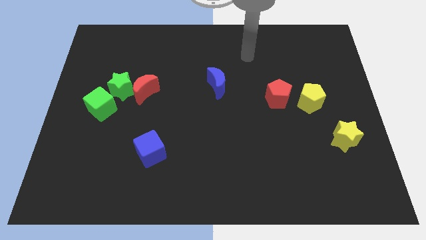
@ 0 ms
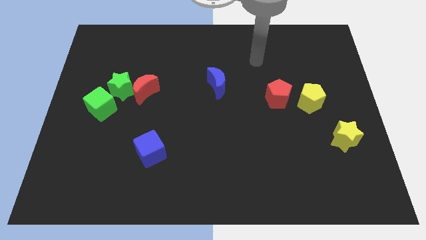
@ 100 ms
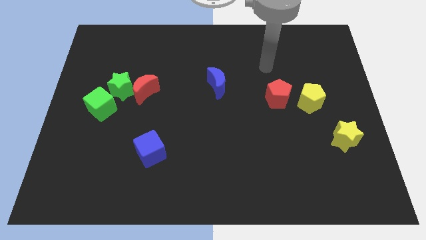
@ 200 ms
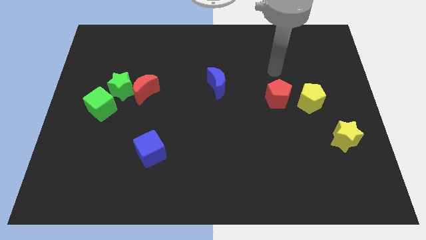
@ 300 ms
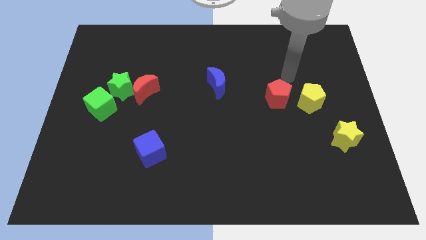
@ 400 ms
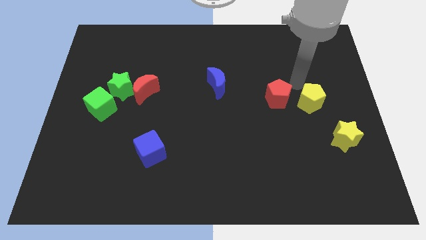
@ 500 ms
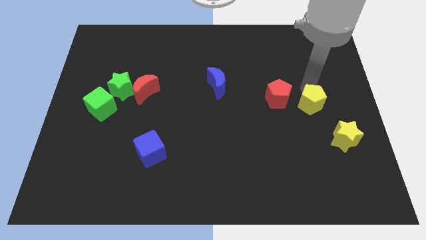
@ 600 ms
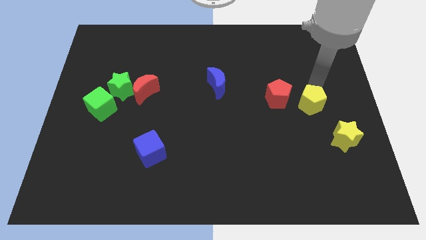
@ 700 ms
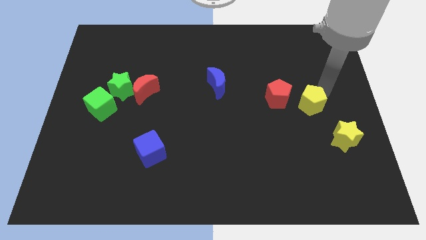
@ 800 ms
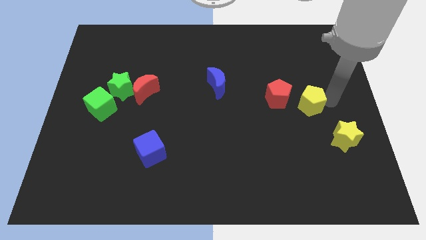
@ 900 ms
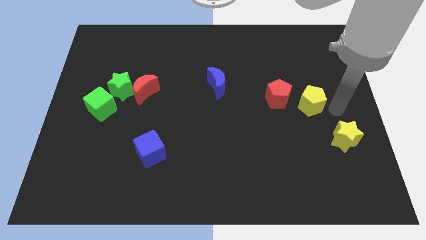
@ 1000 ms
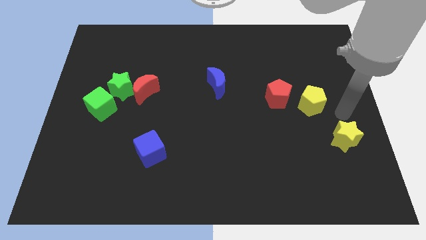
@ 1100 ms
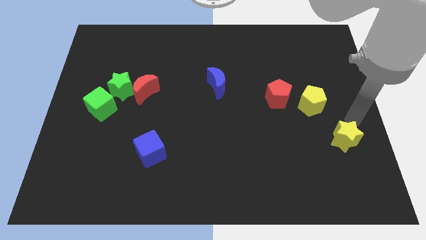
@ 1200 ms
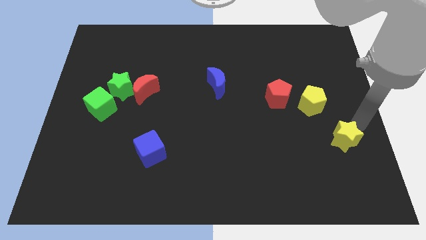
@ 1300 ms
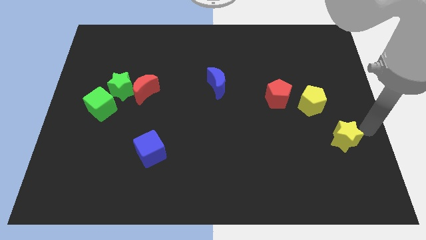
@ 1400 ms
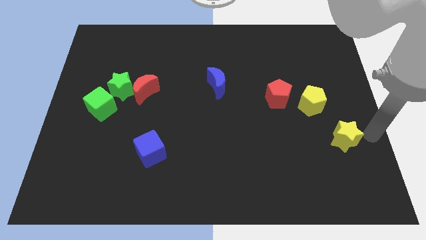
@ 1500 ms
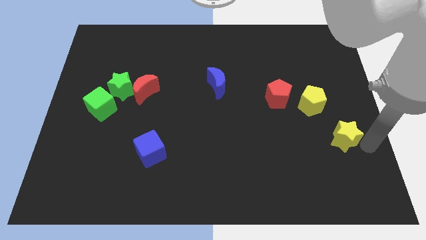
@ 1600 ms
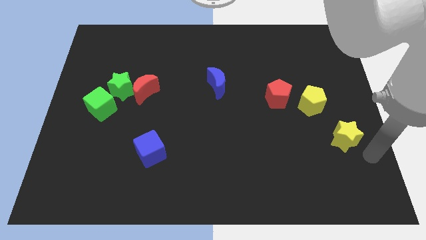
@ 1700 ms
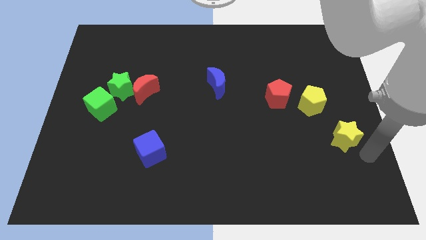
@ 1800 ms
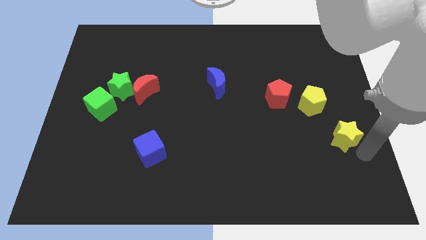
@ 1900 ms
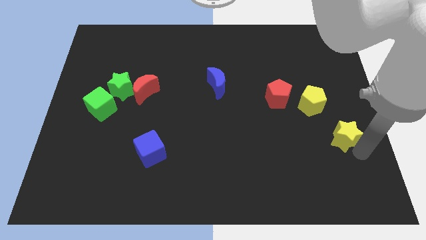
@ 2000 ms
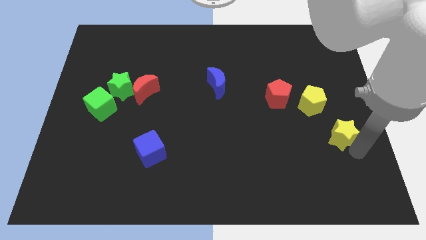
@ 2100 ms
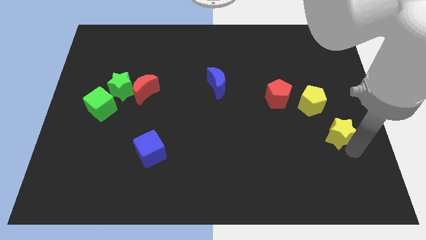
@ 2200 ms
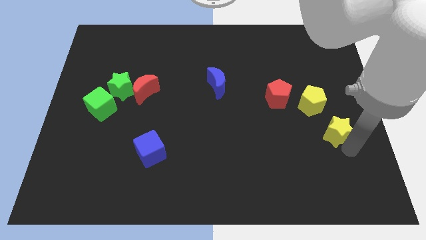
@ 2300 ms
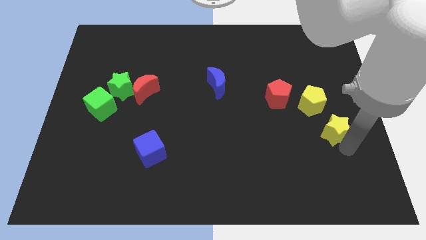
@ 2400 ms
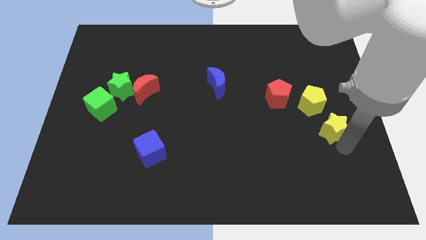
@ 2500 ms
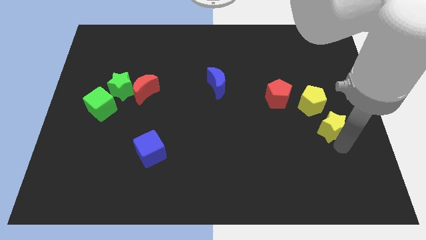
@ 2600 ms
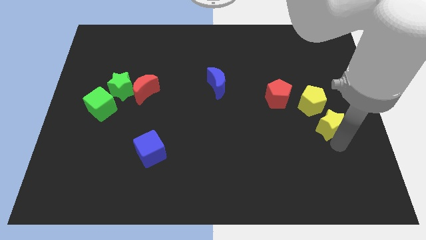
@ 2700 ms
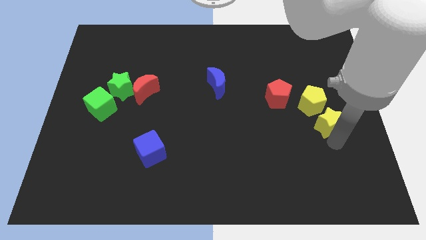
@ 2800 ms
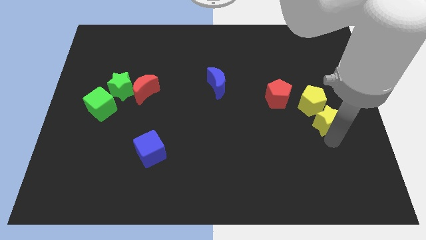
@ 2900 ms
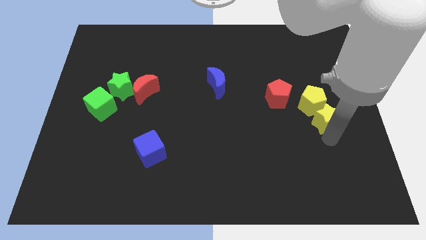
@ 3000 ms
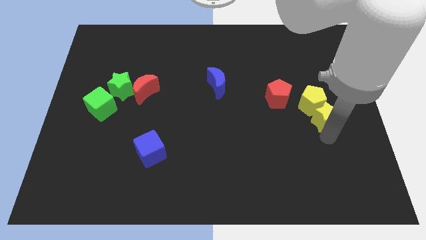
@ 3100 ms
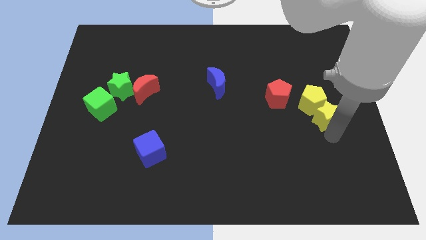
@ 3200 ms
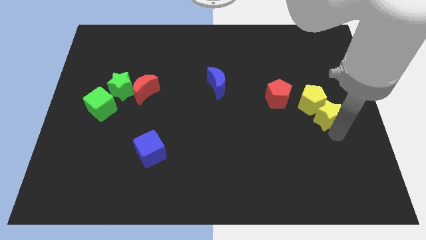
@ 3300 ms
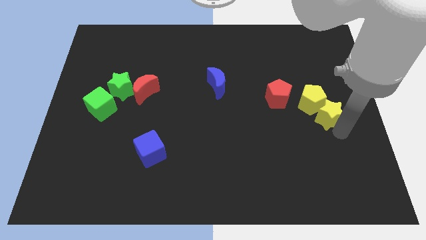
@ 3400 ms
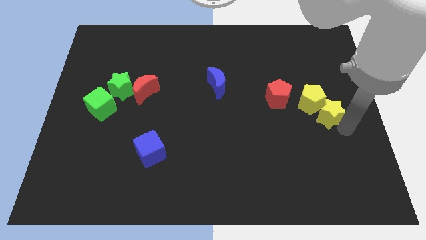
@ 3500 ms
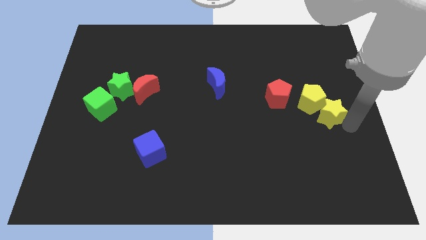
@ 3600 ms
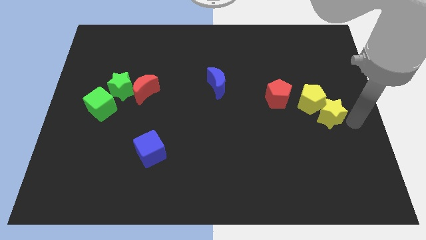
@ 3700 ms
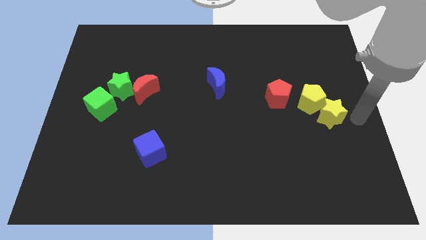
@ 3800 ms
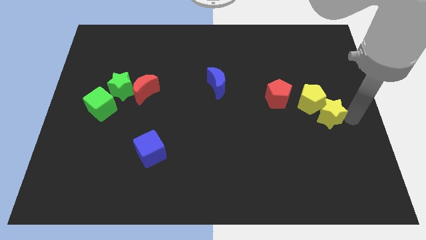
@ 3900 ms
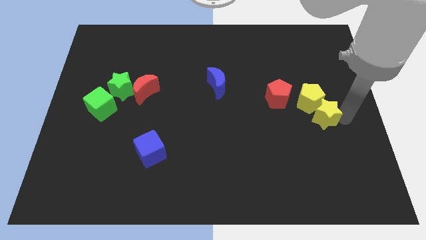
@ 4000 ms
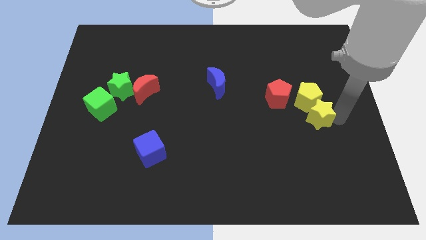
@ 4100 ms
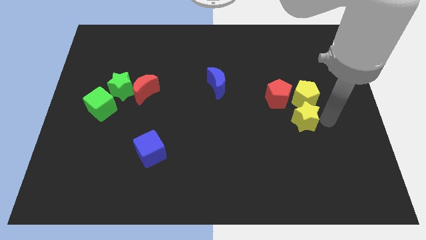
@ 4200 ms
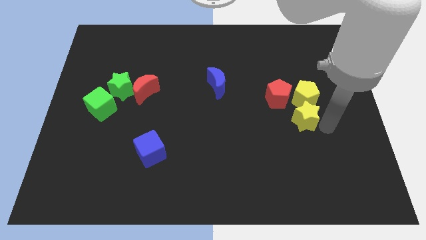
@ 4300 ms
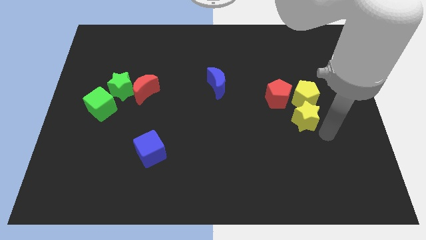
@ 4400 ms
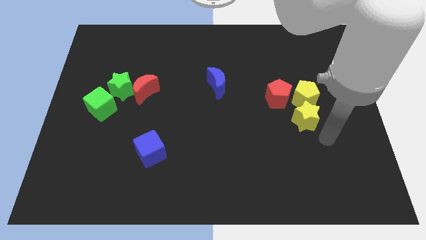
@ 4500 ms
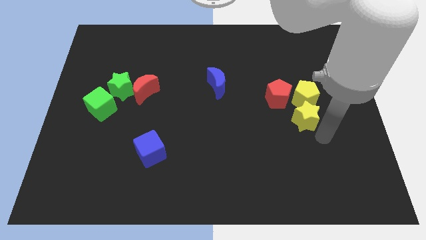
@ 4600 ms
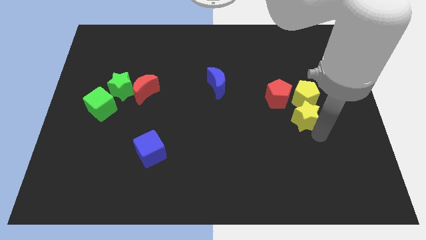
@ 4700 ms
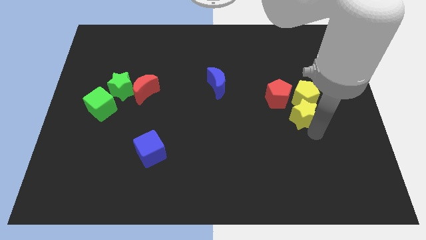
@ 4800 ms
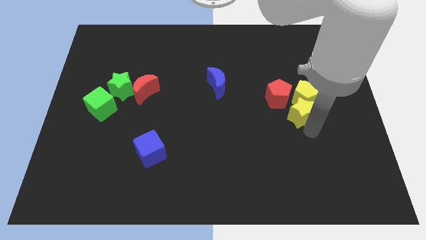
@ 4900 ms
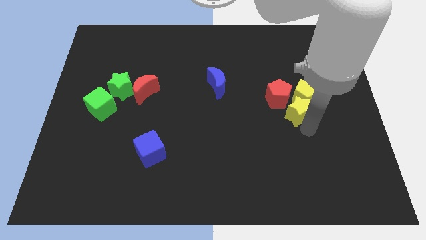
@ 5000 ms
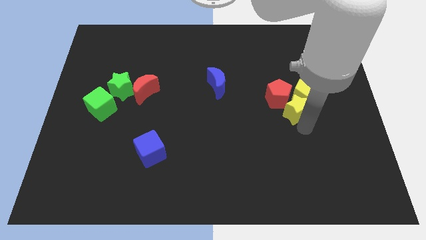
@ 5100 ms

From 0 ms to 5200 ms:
move the yellow star to the red pentagon

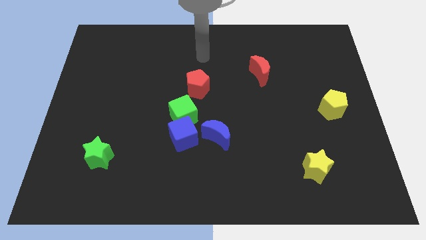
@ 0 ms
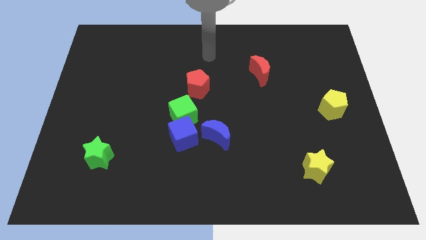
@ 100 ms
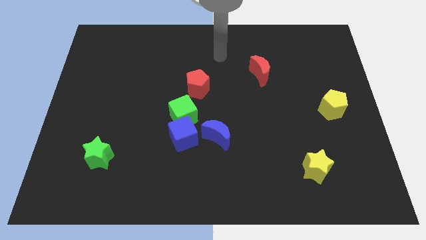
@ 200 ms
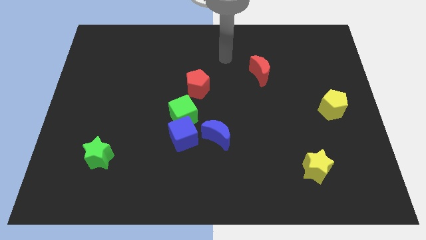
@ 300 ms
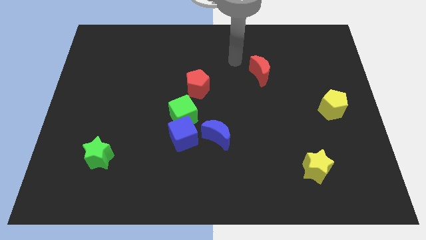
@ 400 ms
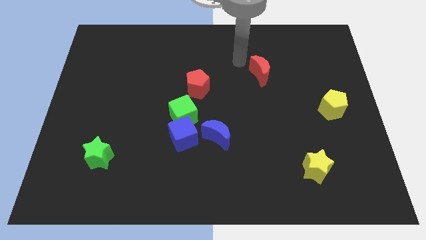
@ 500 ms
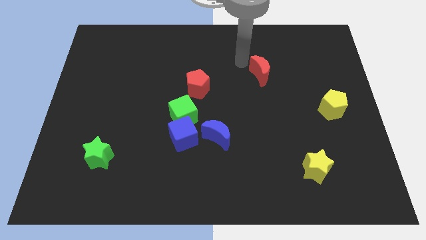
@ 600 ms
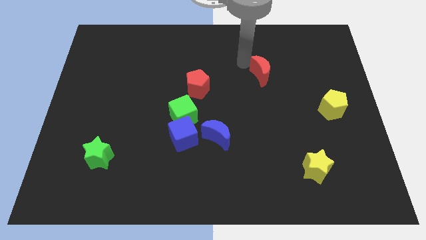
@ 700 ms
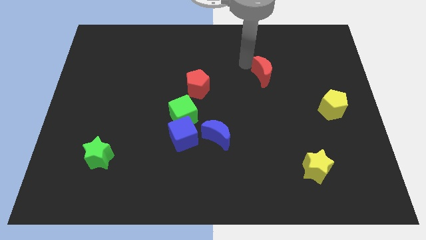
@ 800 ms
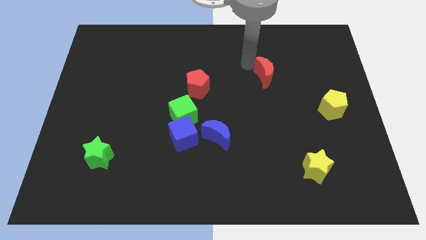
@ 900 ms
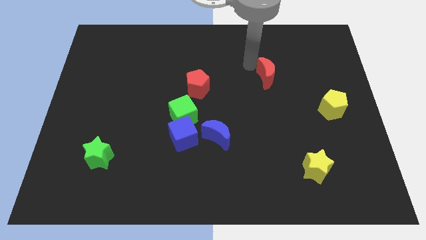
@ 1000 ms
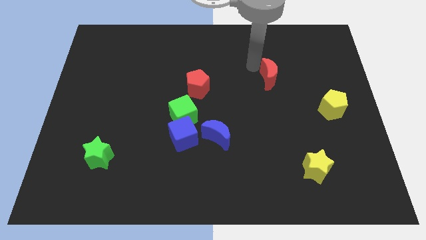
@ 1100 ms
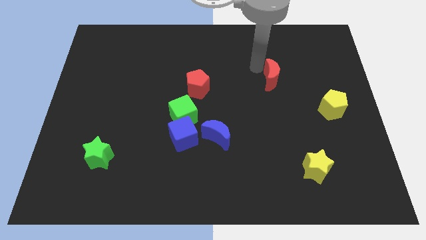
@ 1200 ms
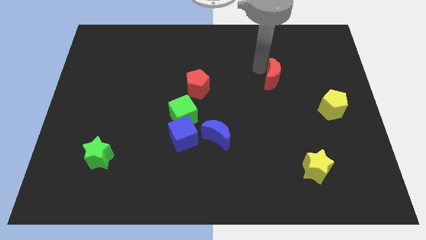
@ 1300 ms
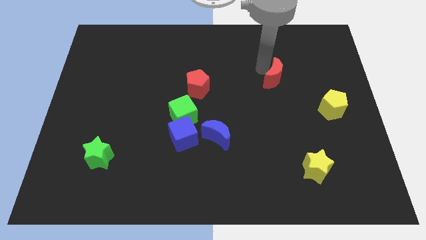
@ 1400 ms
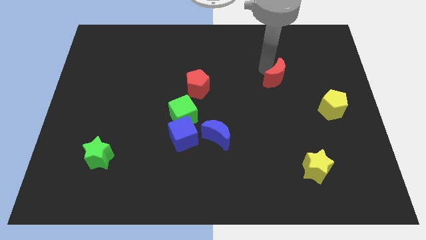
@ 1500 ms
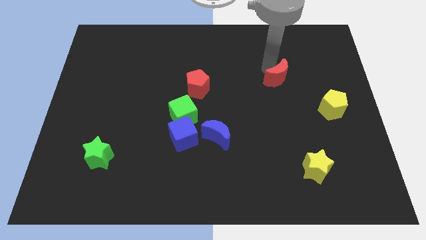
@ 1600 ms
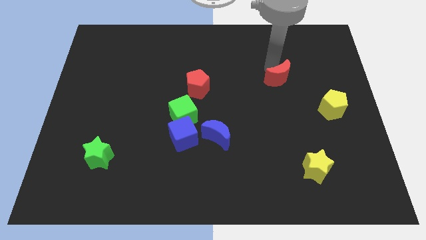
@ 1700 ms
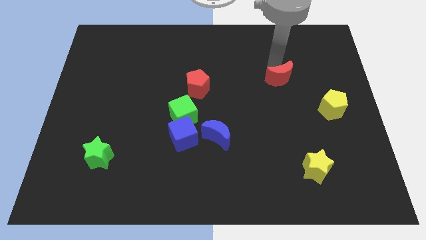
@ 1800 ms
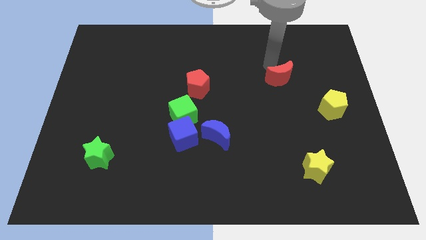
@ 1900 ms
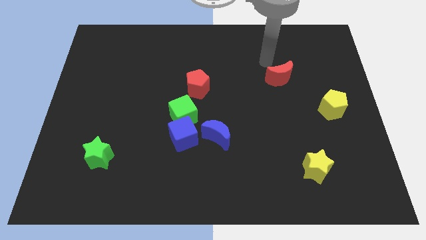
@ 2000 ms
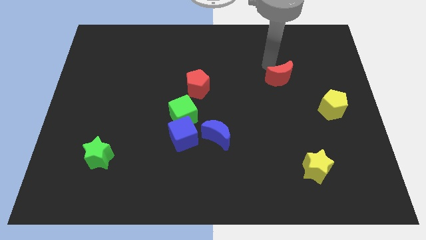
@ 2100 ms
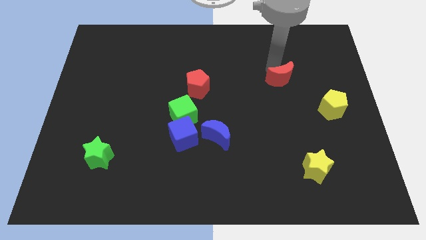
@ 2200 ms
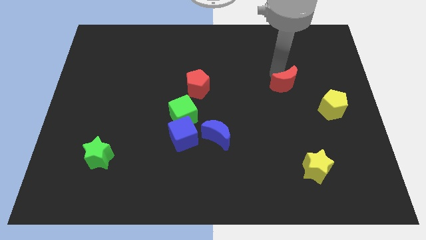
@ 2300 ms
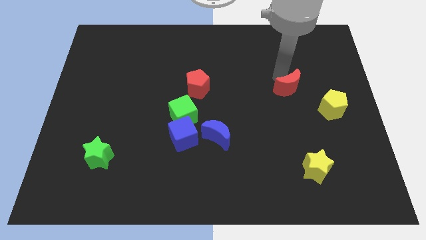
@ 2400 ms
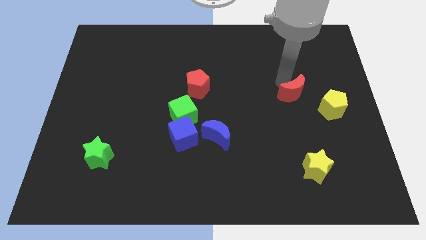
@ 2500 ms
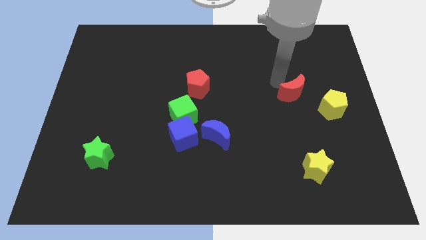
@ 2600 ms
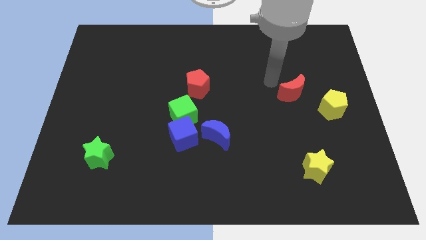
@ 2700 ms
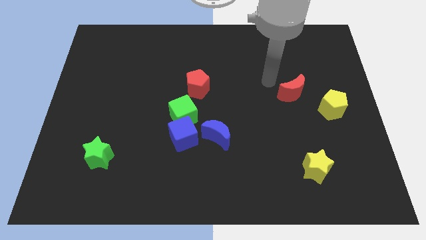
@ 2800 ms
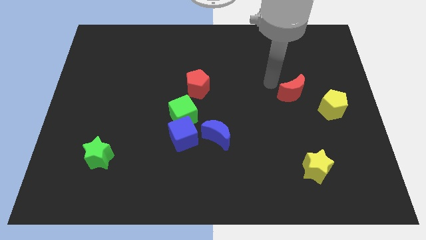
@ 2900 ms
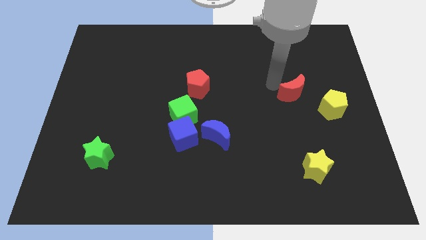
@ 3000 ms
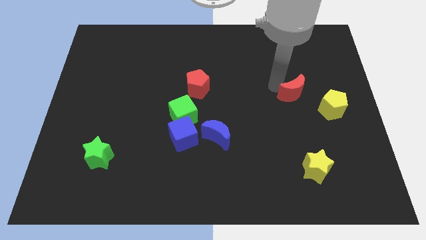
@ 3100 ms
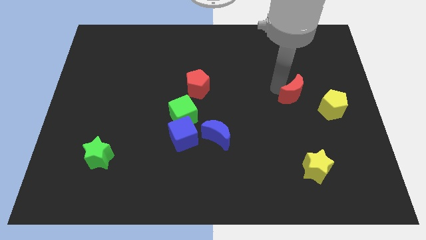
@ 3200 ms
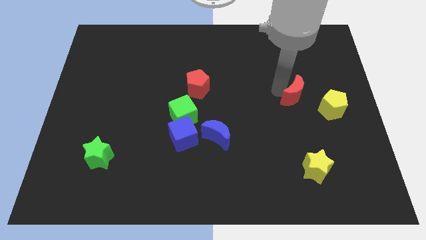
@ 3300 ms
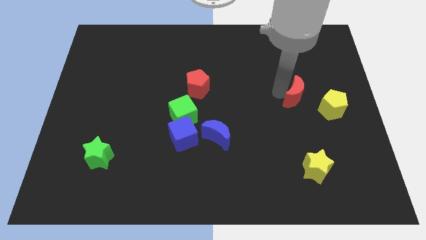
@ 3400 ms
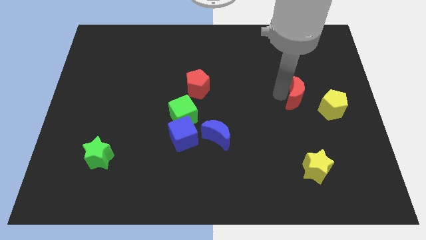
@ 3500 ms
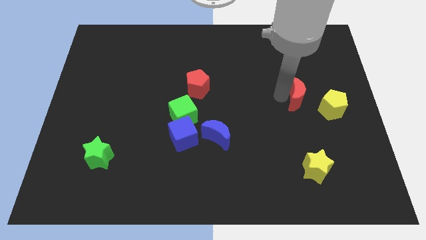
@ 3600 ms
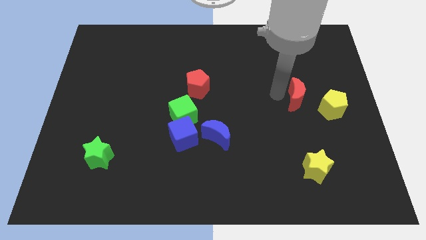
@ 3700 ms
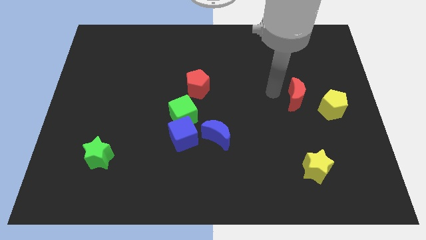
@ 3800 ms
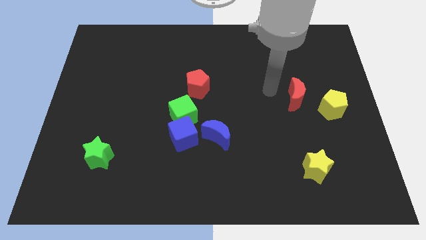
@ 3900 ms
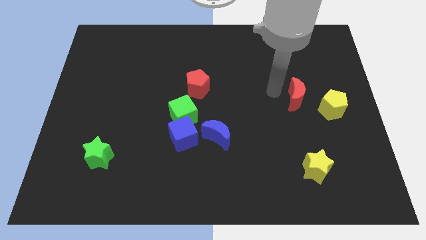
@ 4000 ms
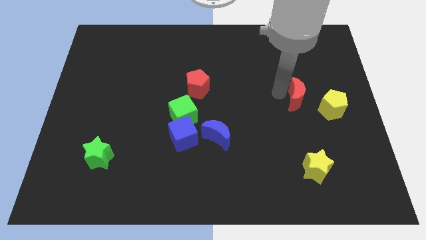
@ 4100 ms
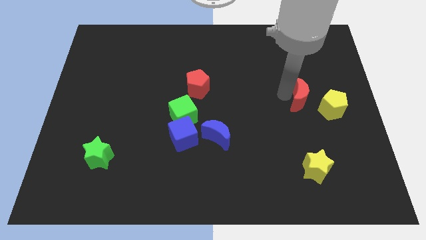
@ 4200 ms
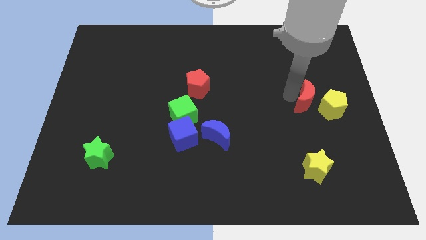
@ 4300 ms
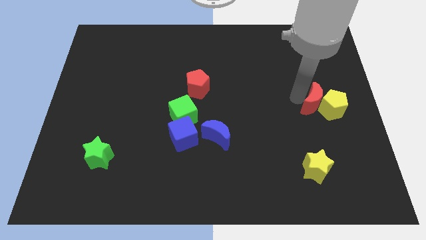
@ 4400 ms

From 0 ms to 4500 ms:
push the red moon next to the yellow pentagon
